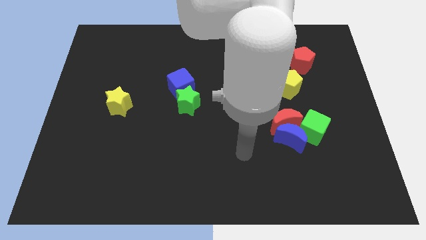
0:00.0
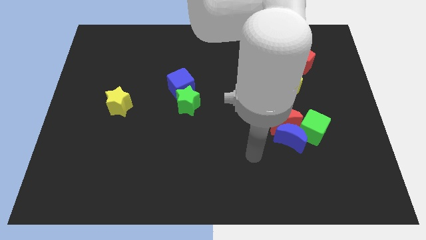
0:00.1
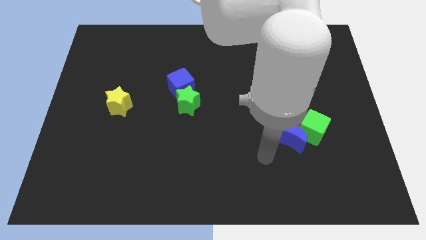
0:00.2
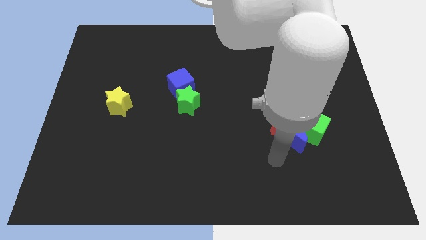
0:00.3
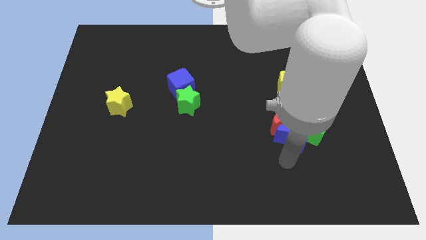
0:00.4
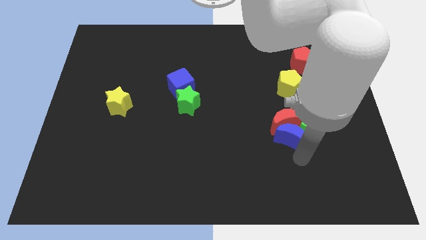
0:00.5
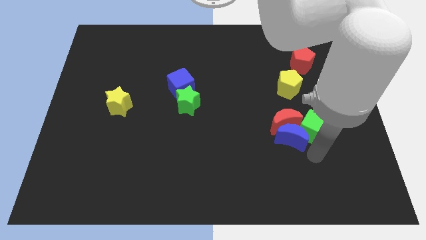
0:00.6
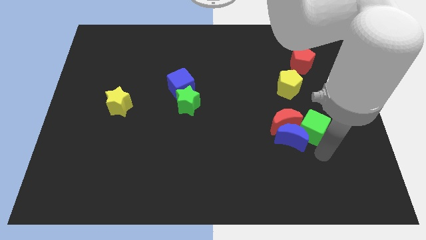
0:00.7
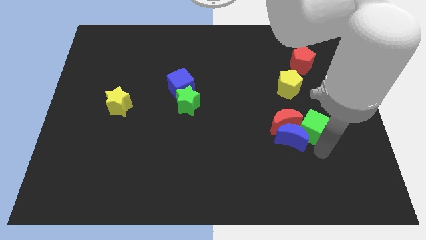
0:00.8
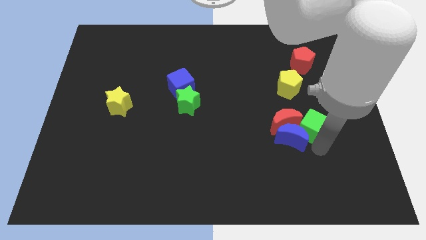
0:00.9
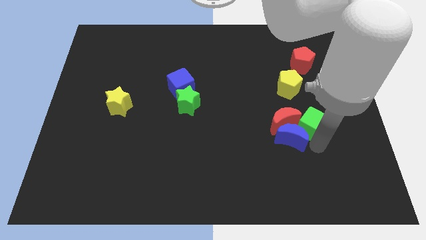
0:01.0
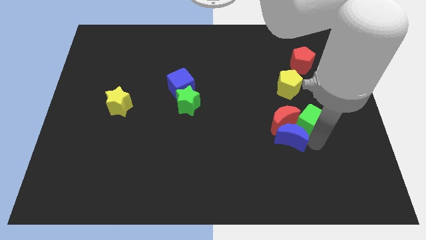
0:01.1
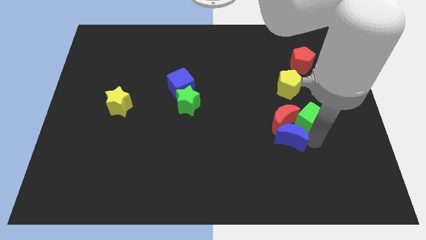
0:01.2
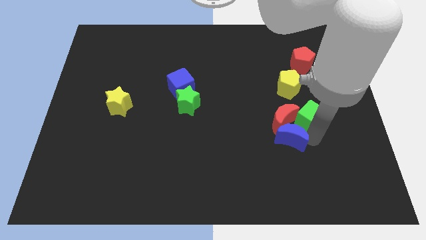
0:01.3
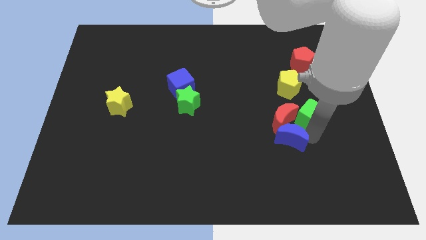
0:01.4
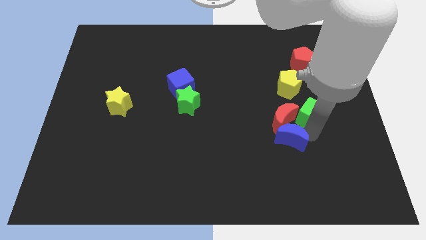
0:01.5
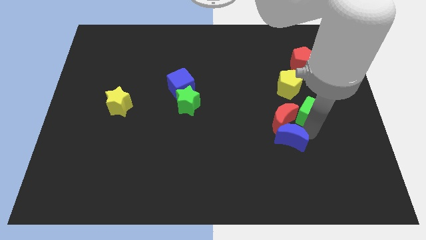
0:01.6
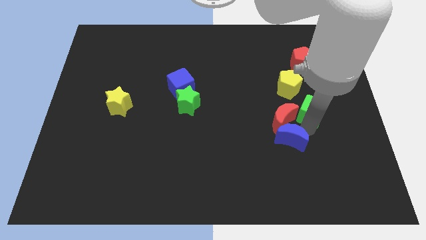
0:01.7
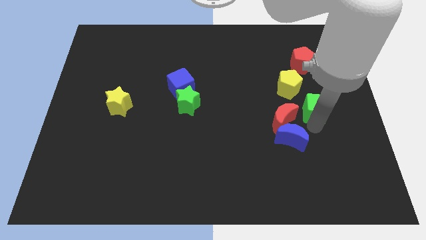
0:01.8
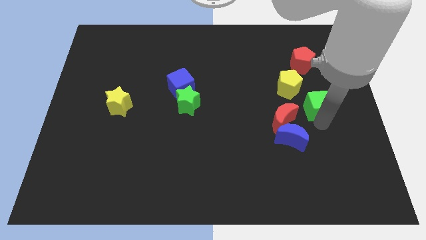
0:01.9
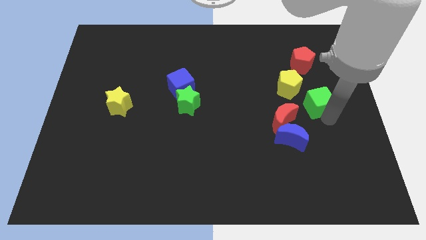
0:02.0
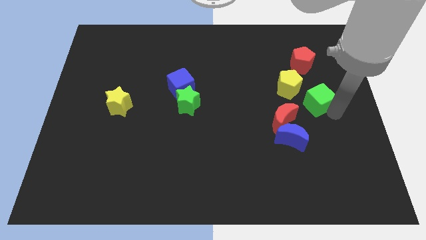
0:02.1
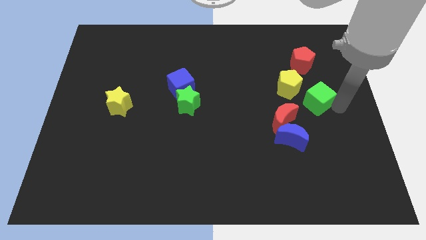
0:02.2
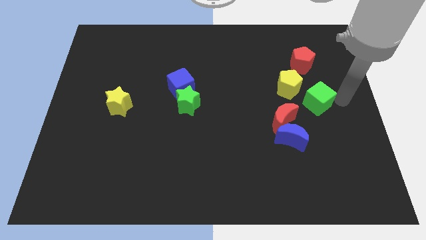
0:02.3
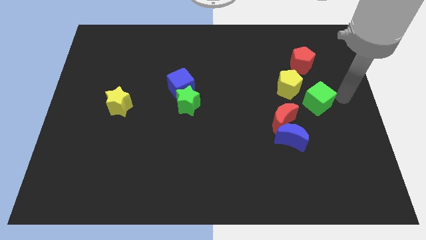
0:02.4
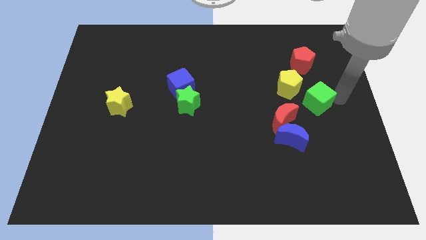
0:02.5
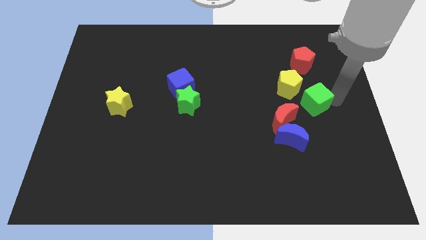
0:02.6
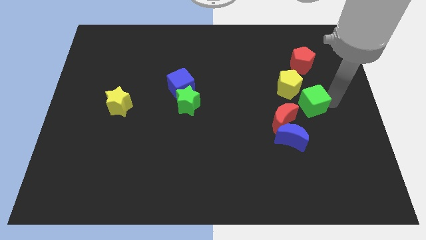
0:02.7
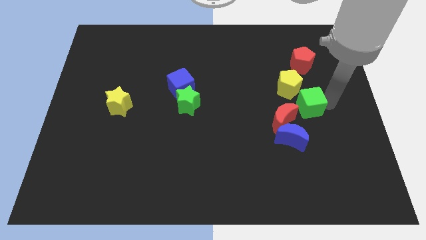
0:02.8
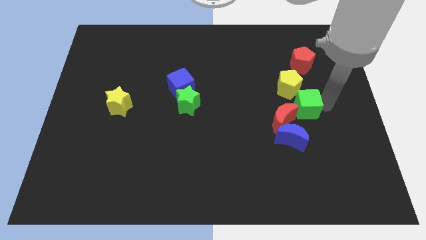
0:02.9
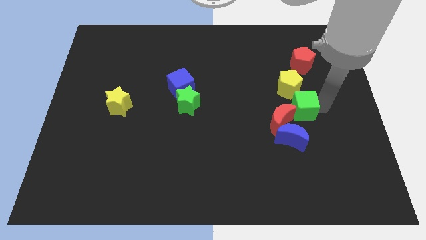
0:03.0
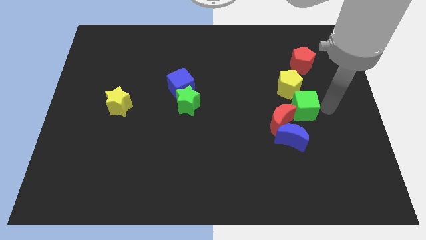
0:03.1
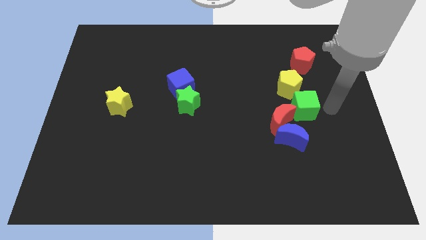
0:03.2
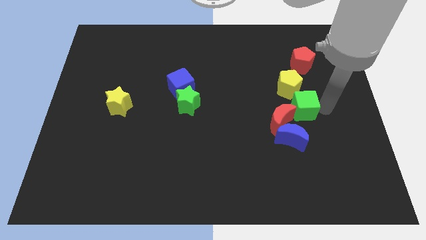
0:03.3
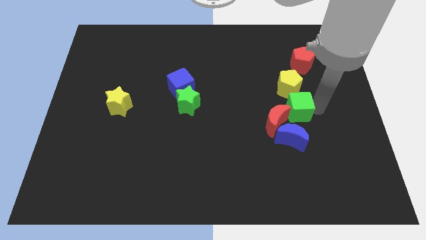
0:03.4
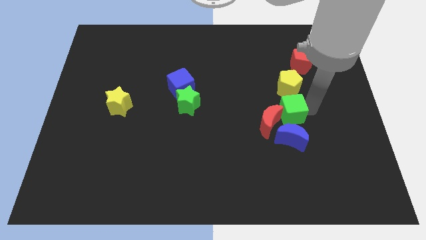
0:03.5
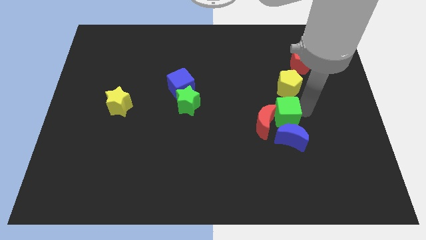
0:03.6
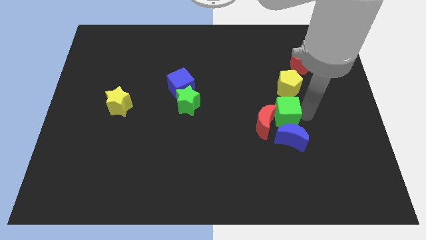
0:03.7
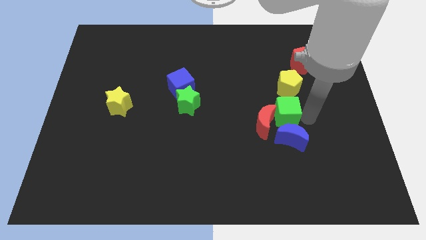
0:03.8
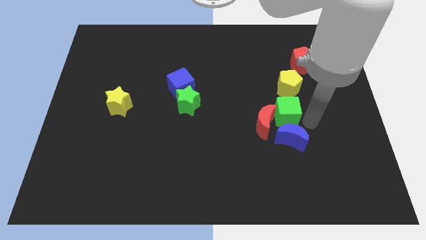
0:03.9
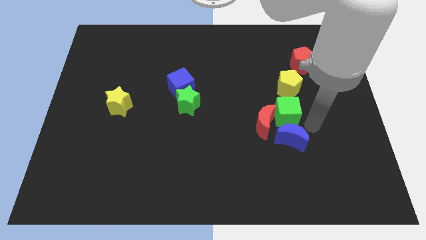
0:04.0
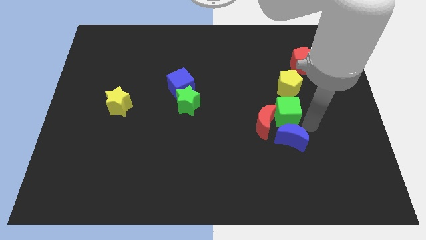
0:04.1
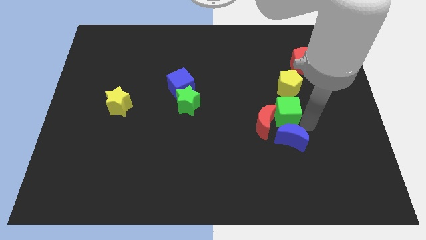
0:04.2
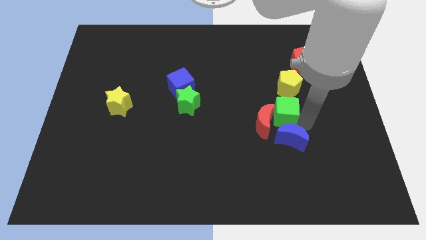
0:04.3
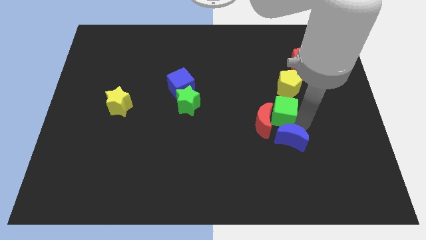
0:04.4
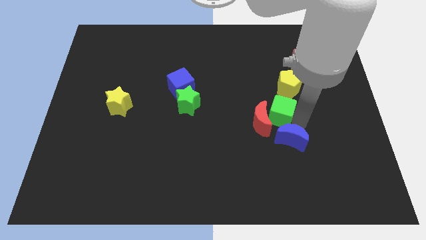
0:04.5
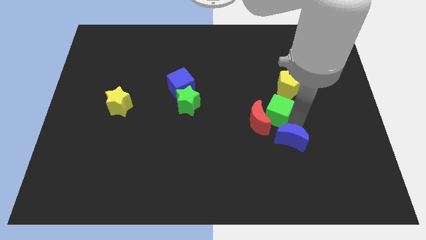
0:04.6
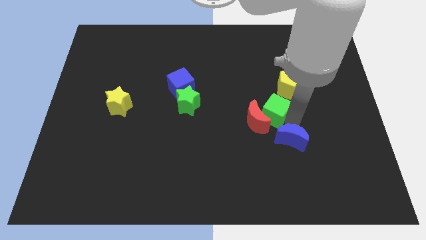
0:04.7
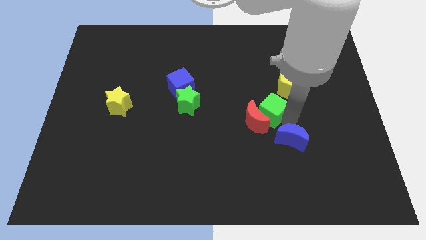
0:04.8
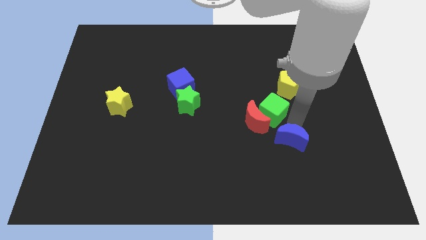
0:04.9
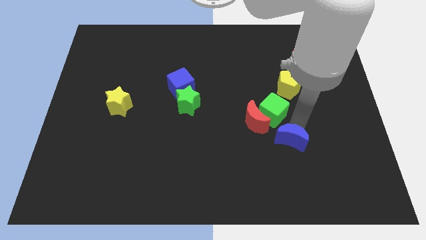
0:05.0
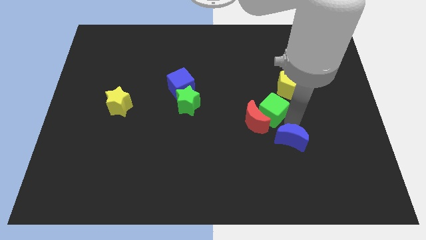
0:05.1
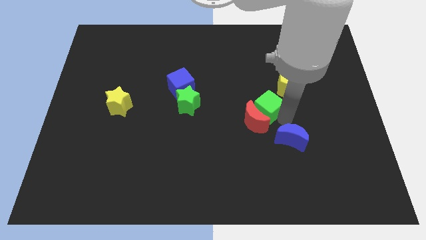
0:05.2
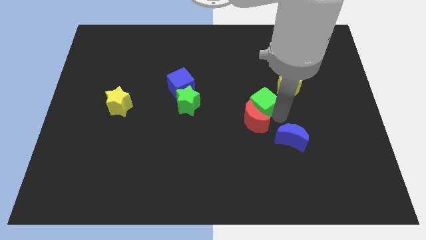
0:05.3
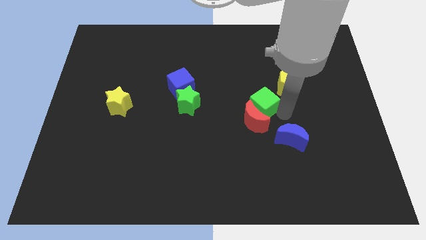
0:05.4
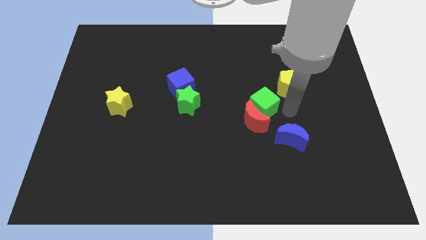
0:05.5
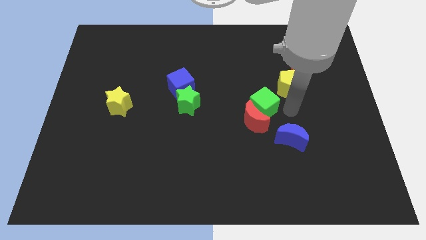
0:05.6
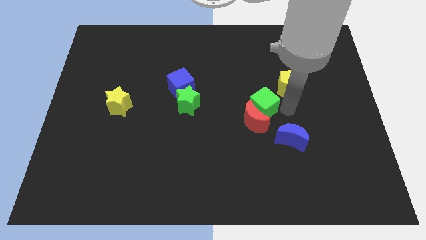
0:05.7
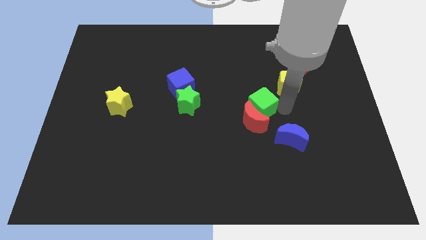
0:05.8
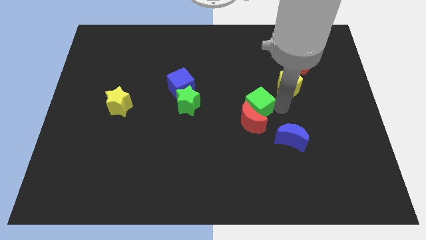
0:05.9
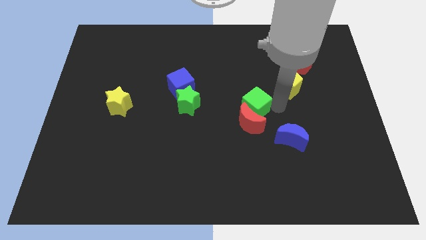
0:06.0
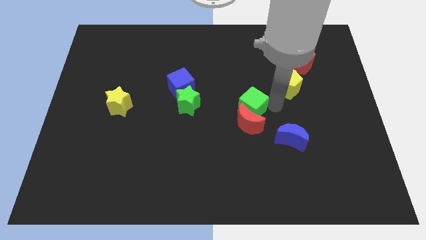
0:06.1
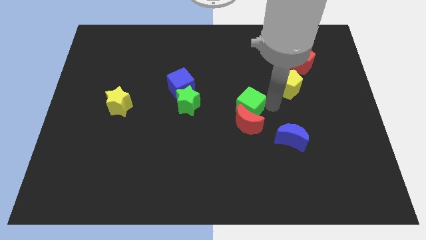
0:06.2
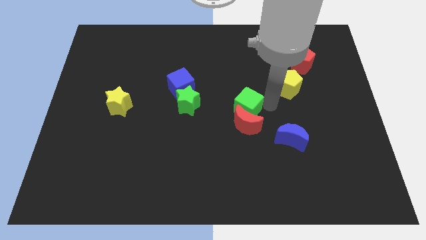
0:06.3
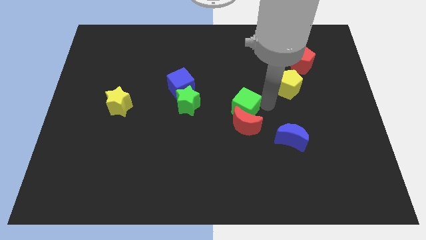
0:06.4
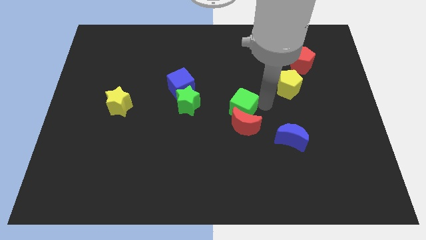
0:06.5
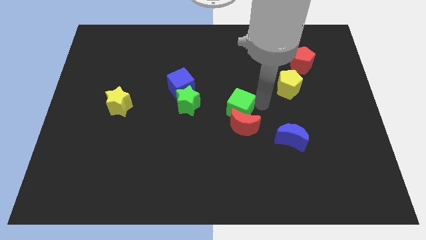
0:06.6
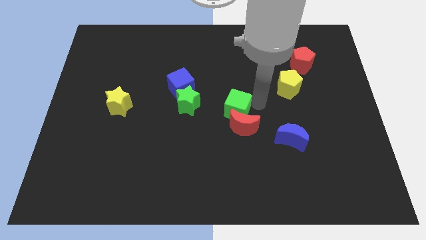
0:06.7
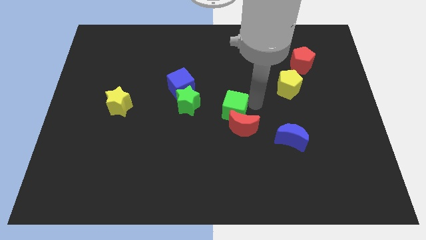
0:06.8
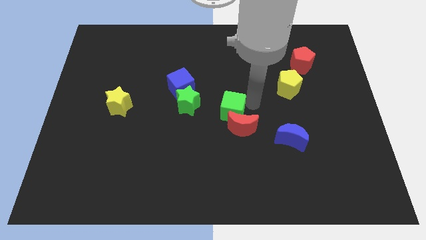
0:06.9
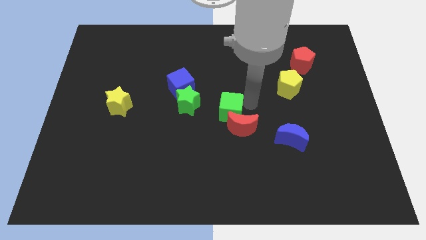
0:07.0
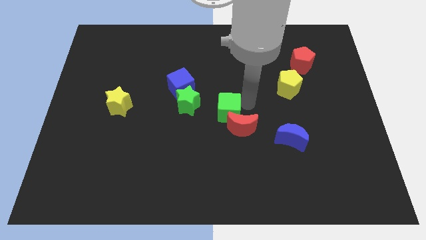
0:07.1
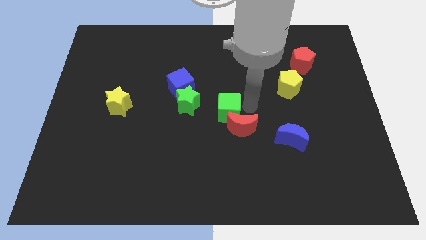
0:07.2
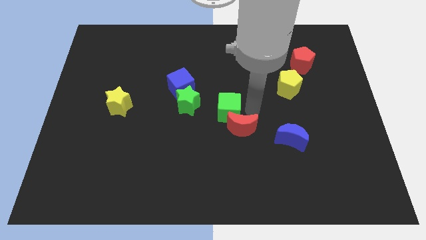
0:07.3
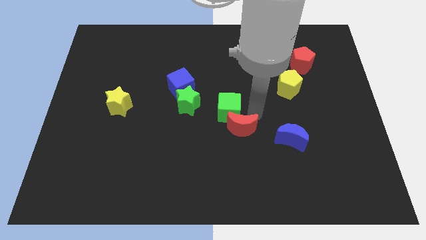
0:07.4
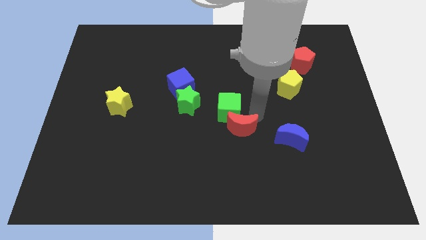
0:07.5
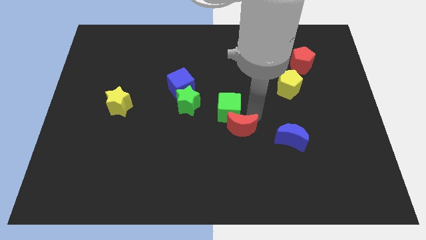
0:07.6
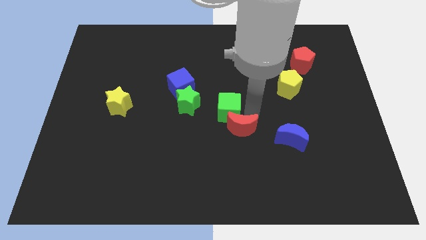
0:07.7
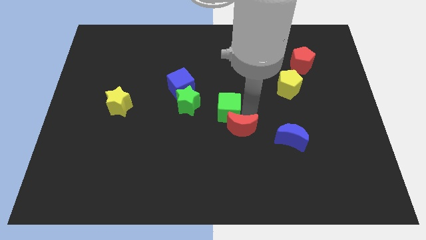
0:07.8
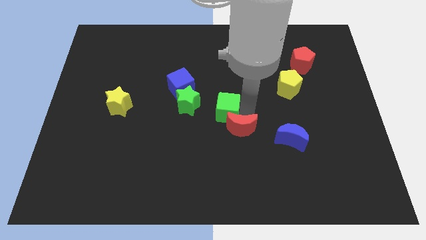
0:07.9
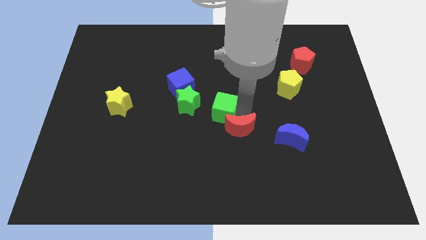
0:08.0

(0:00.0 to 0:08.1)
push the green cube diagonally down and to the right of the blue cube
